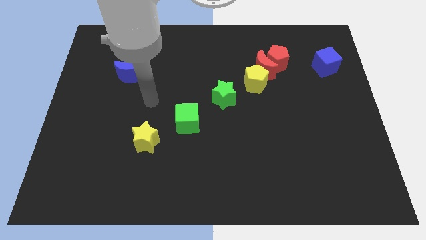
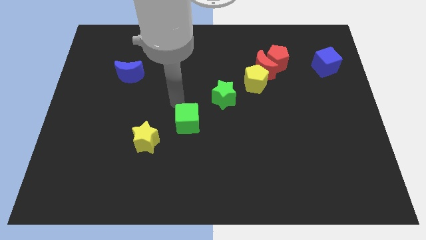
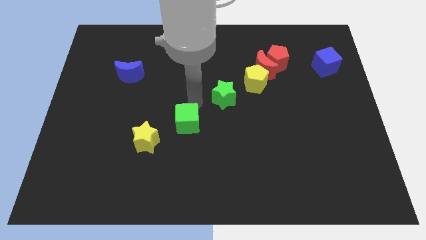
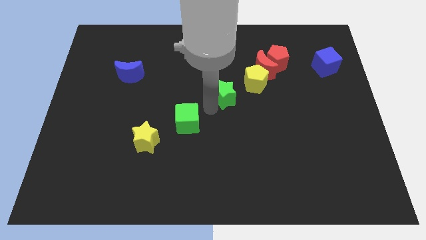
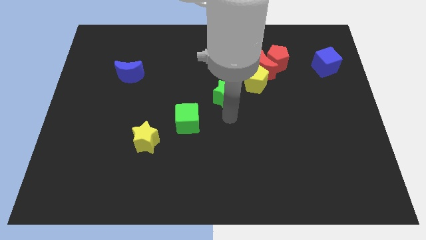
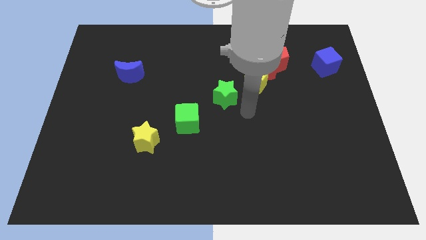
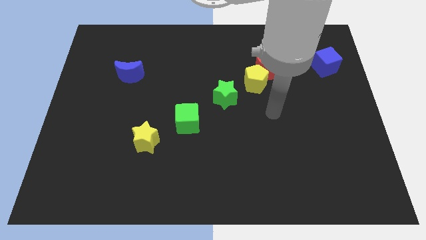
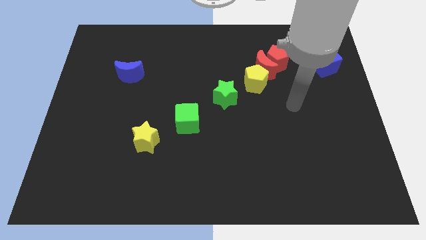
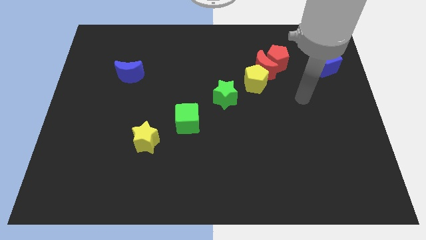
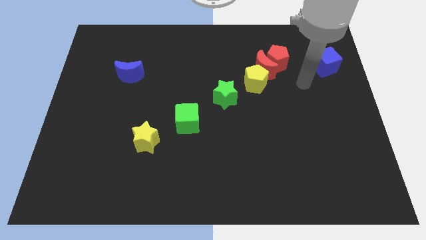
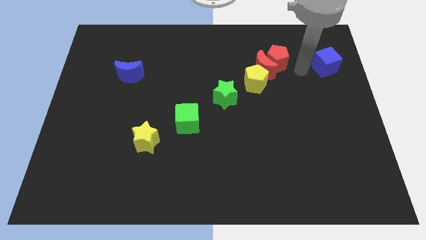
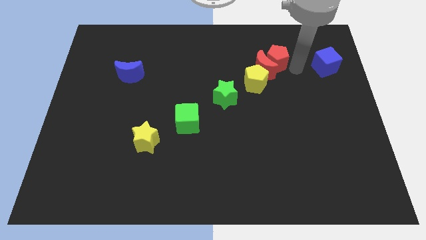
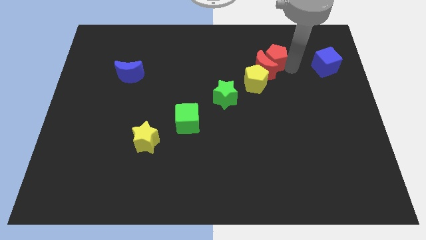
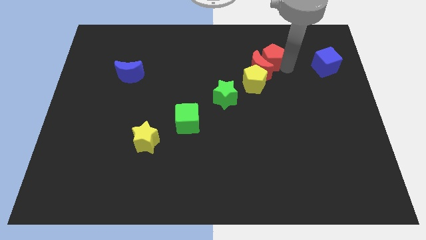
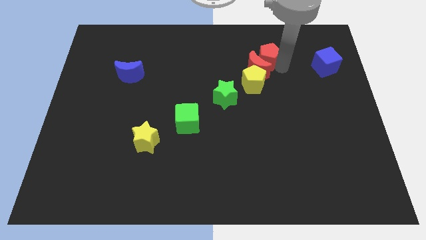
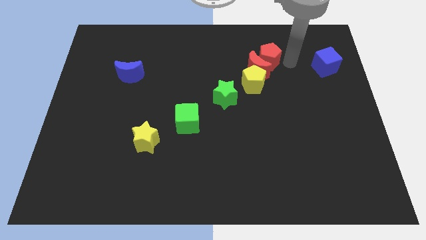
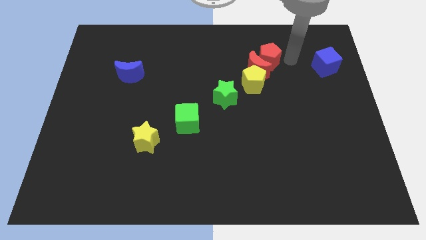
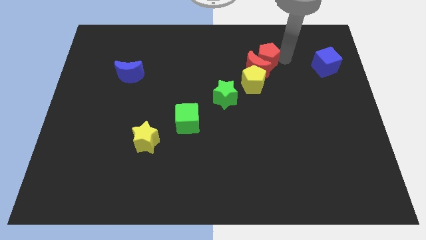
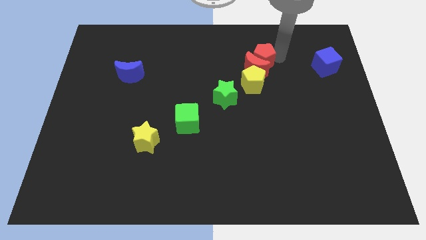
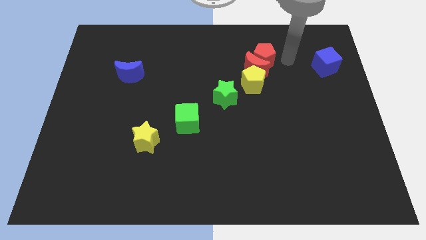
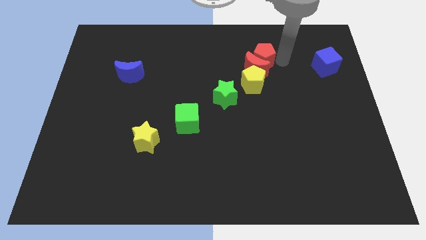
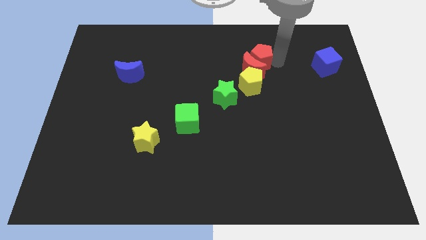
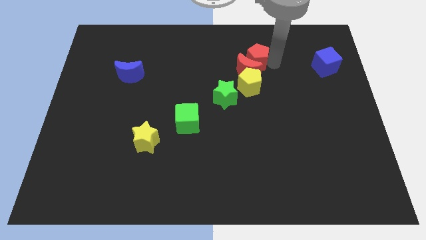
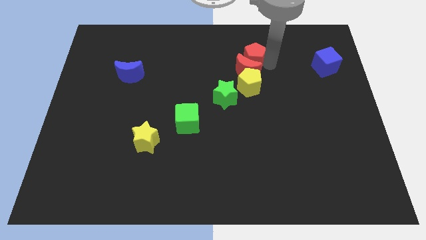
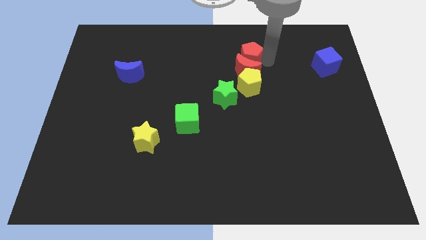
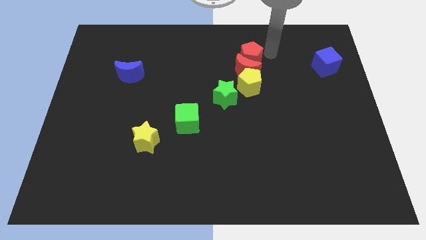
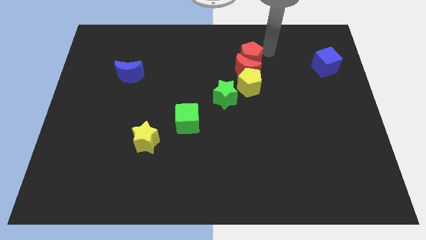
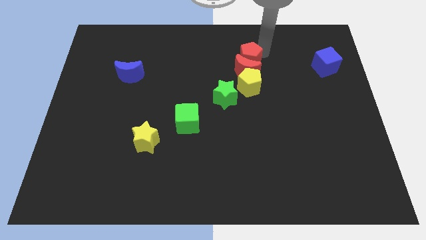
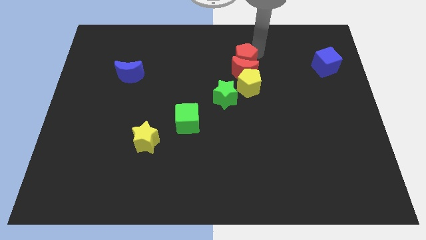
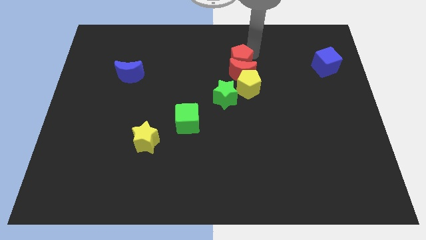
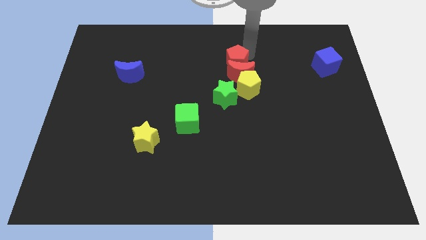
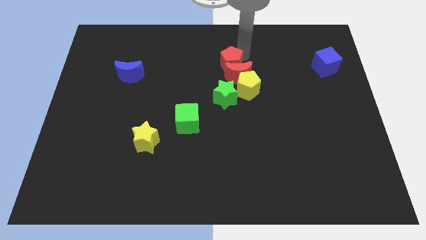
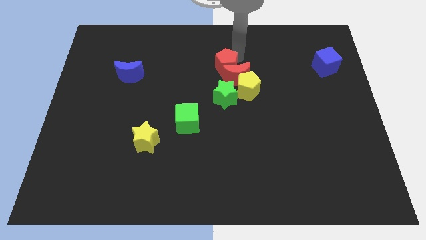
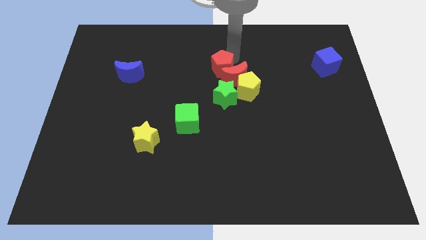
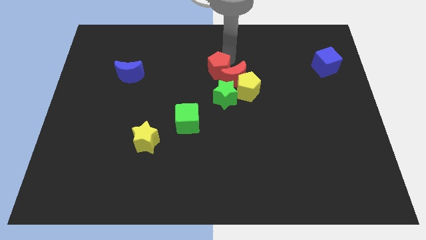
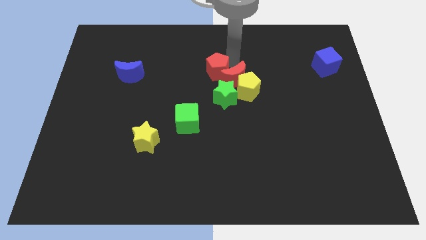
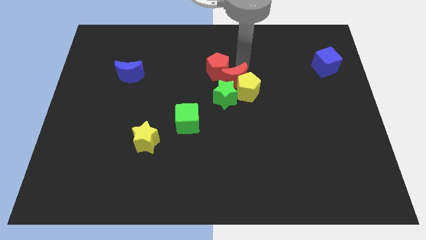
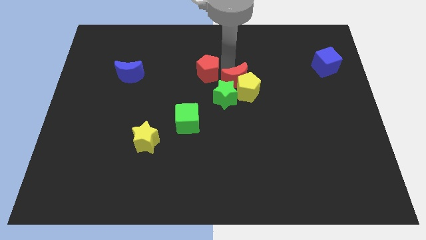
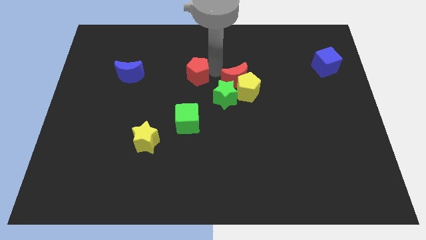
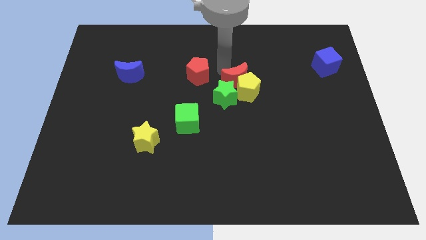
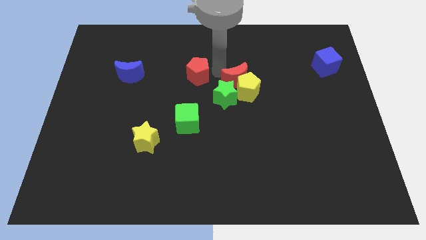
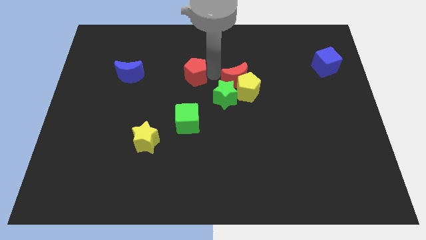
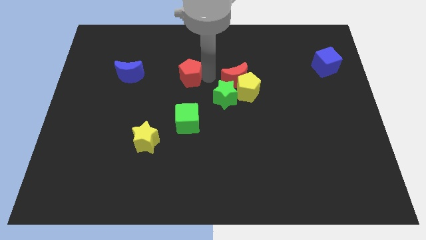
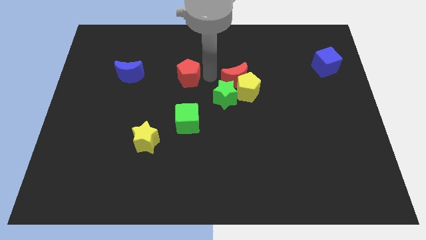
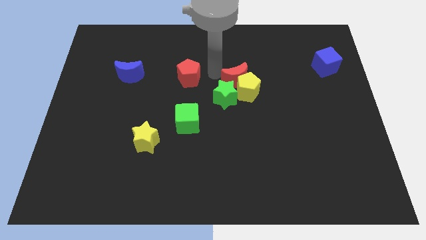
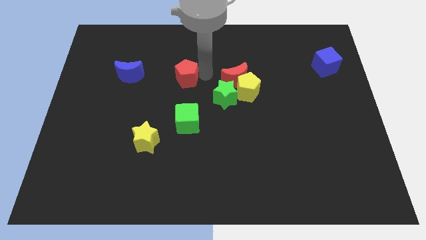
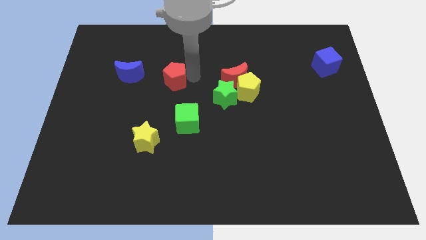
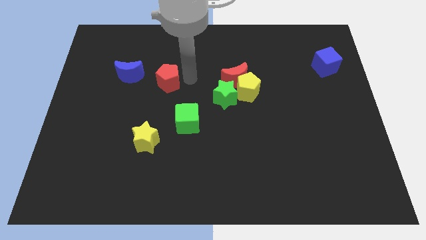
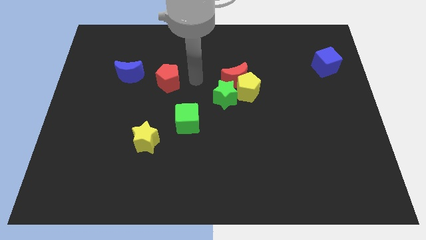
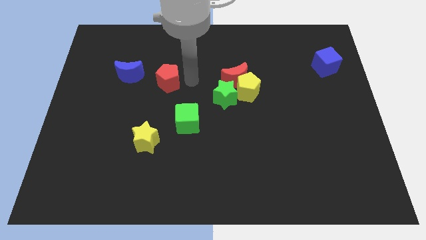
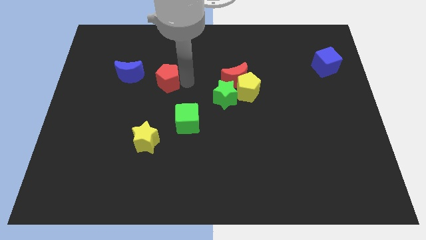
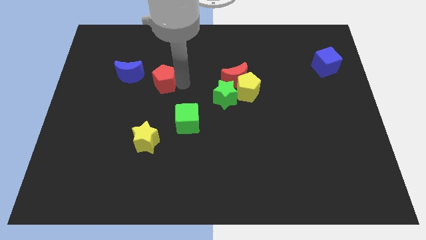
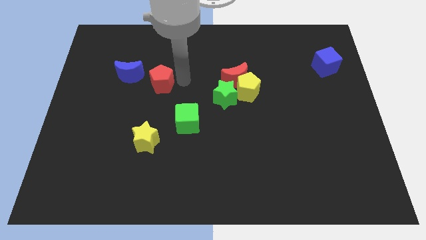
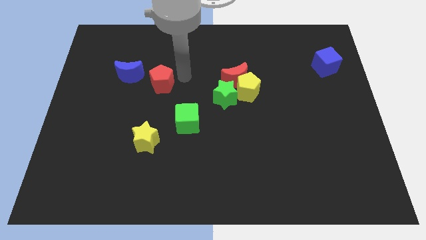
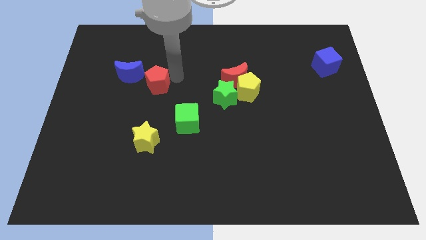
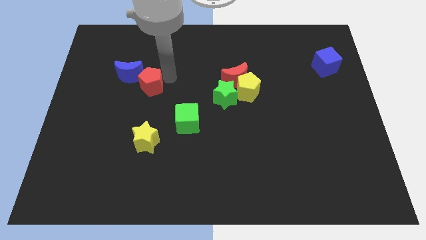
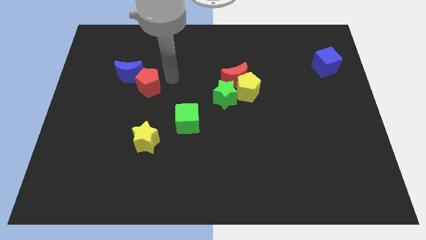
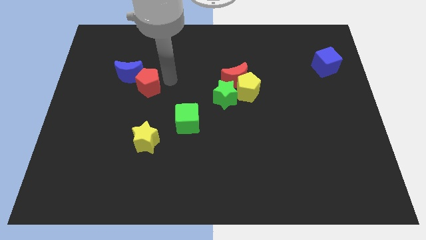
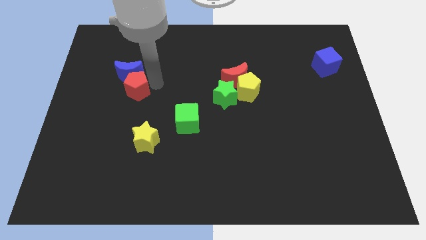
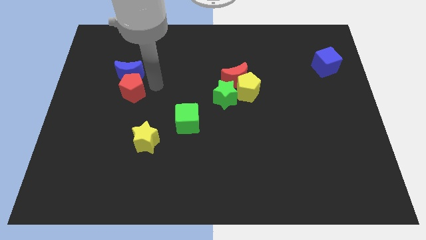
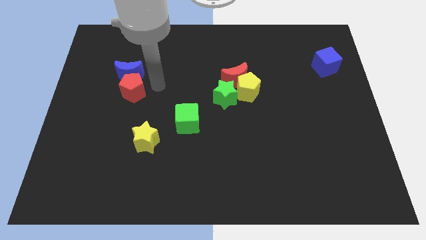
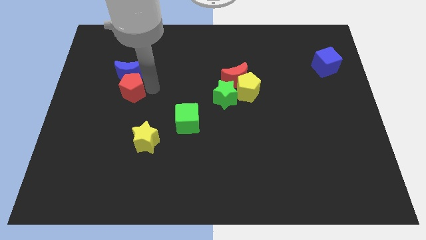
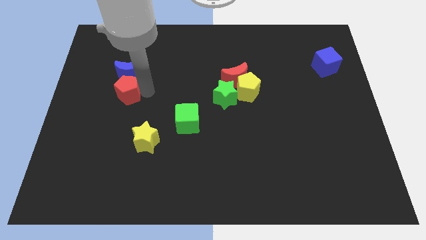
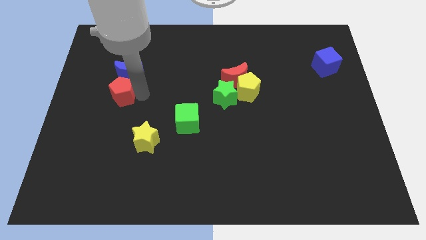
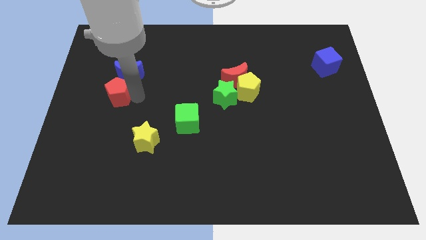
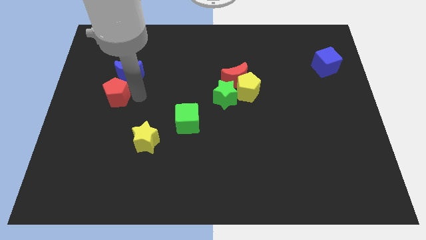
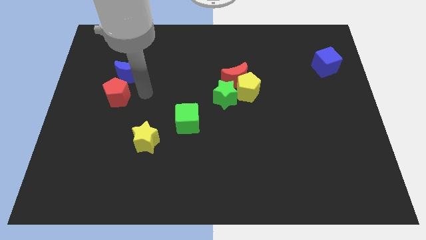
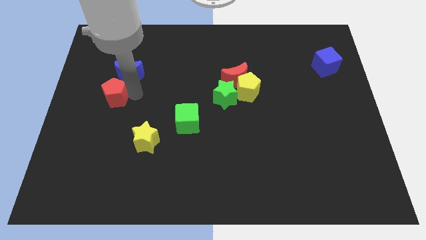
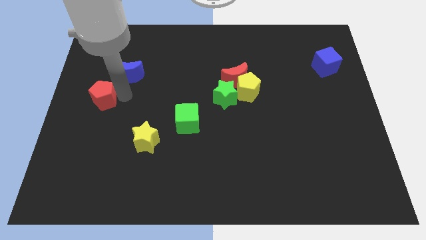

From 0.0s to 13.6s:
slide the red pentagon to the center left

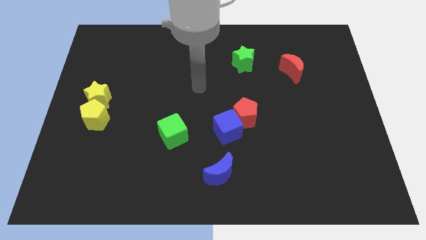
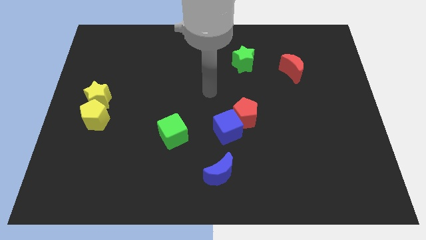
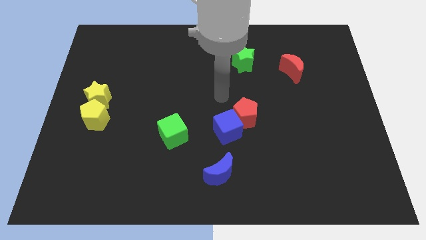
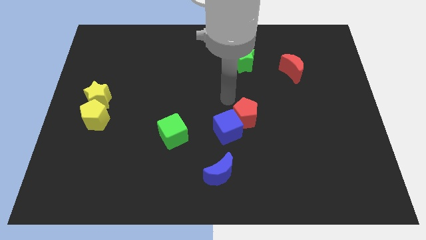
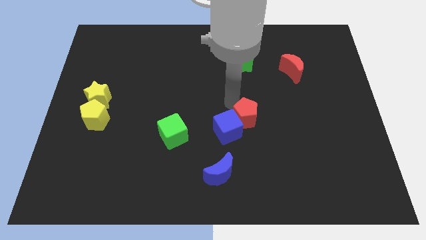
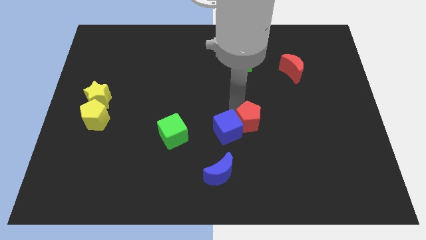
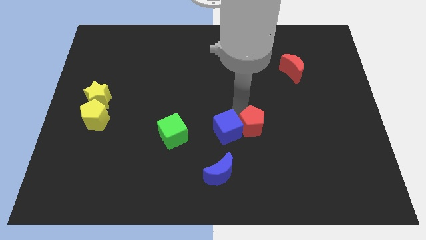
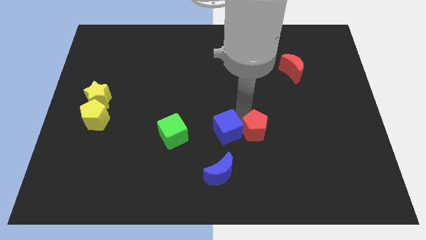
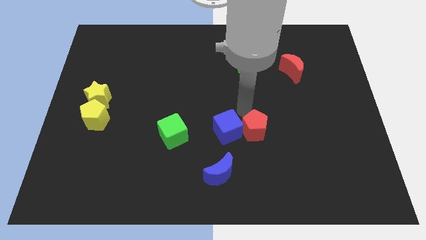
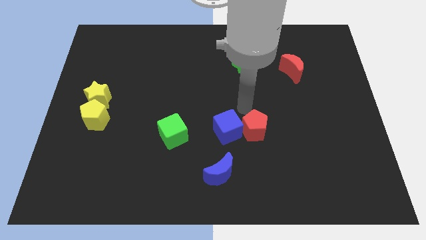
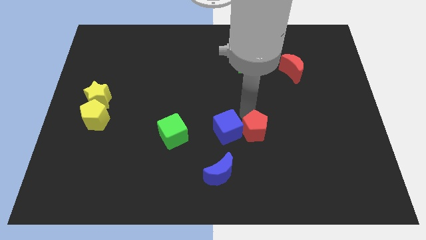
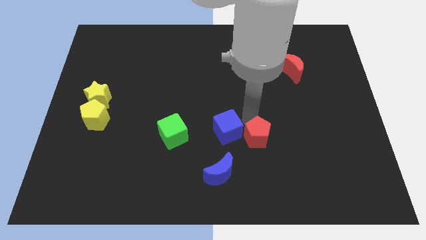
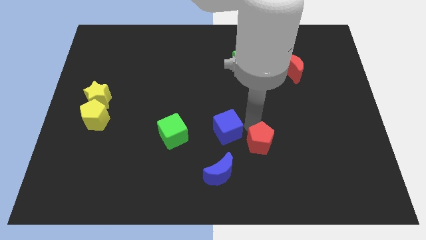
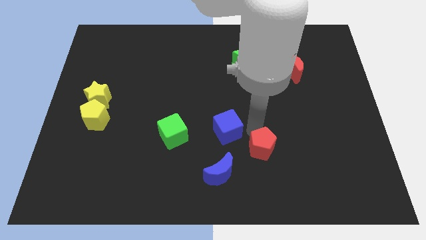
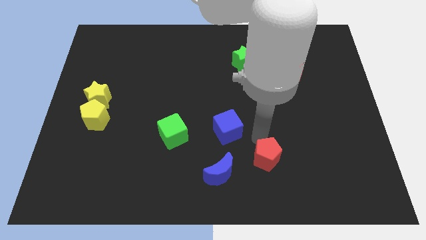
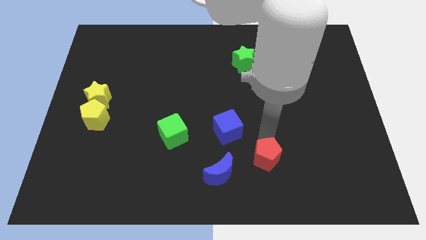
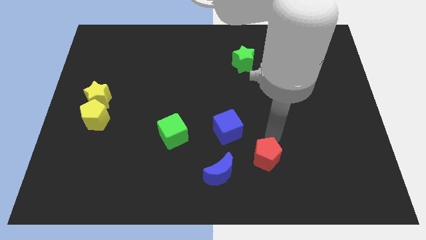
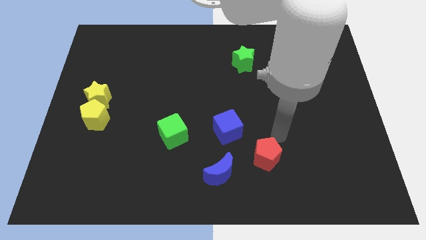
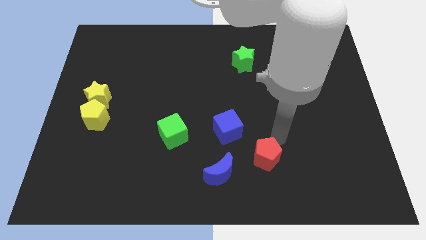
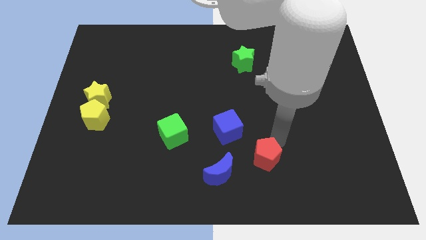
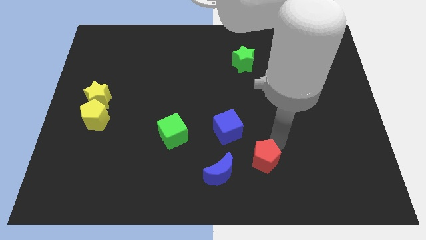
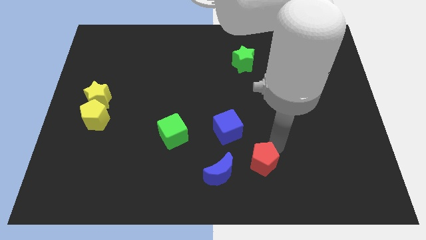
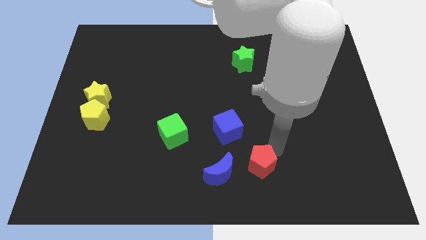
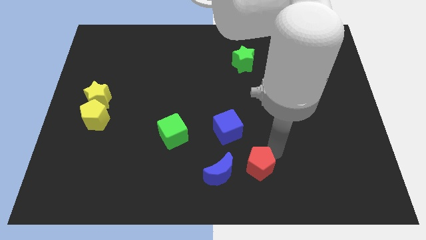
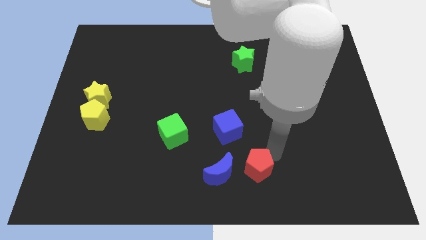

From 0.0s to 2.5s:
move the red pentagon to the bottom side
